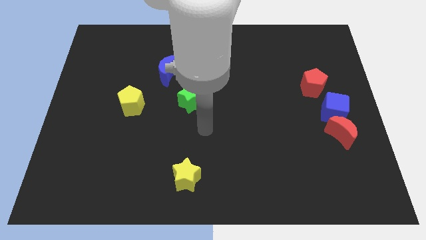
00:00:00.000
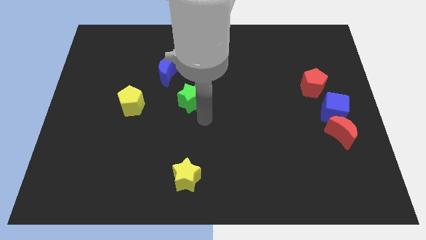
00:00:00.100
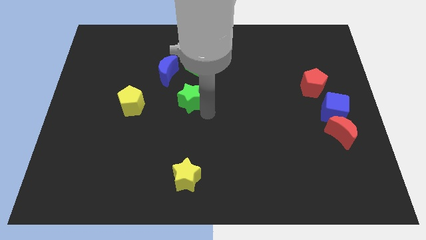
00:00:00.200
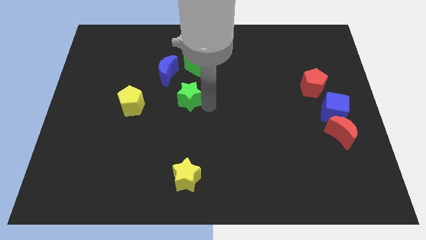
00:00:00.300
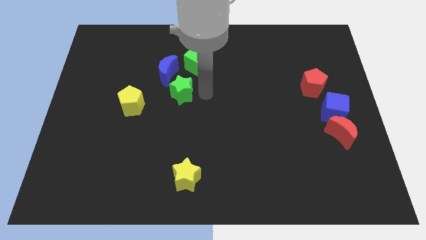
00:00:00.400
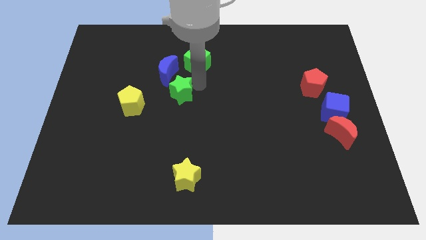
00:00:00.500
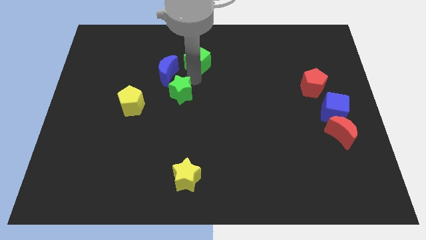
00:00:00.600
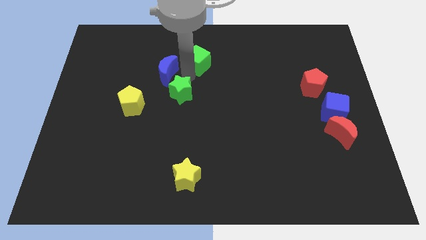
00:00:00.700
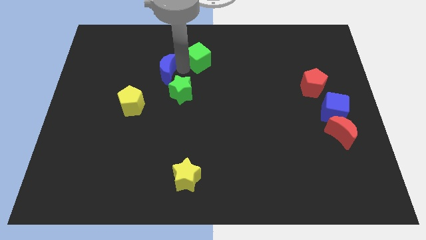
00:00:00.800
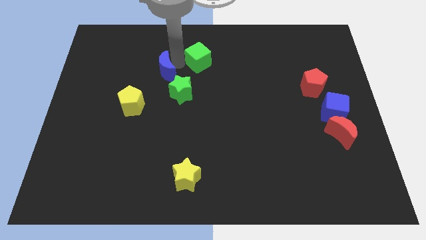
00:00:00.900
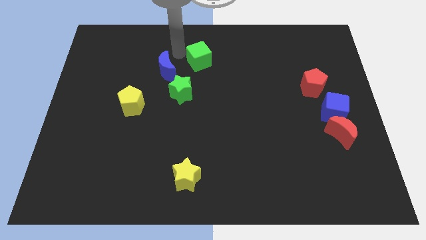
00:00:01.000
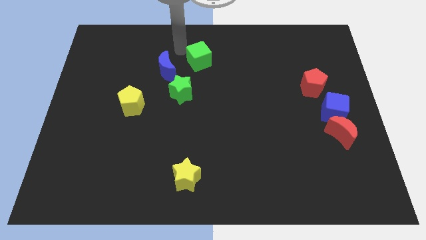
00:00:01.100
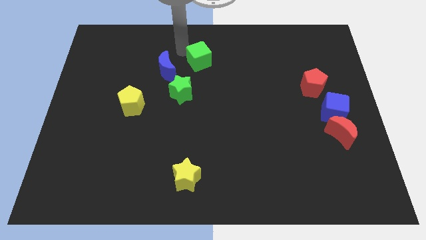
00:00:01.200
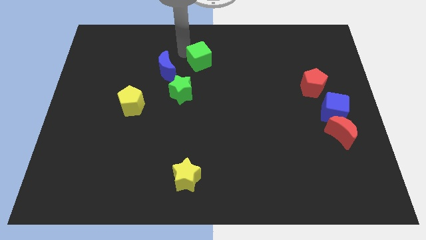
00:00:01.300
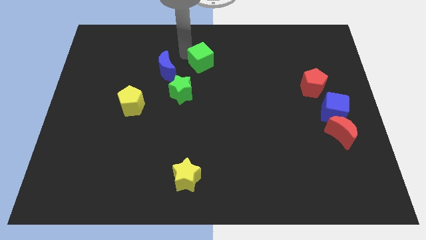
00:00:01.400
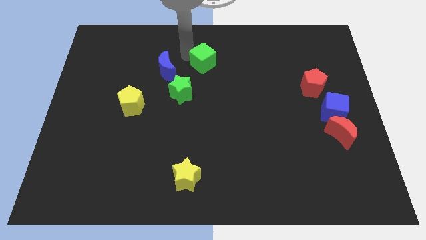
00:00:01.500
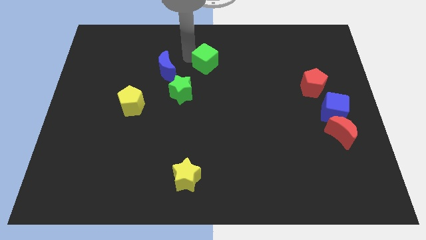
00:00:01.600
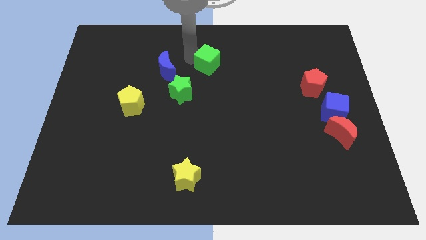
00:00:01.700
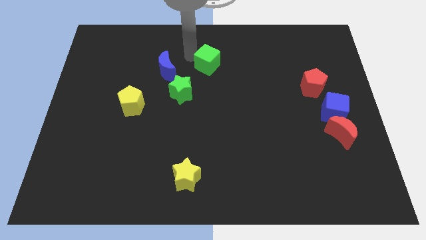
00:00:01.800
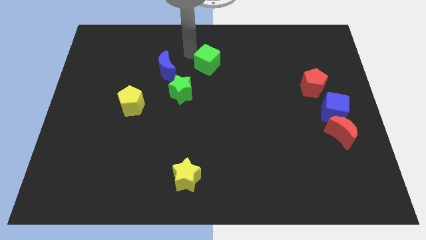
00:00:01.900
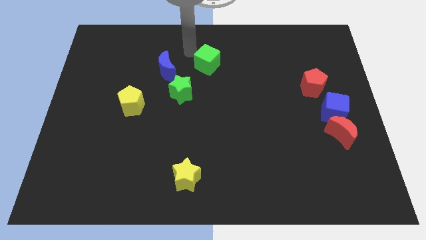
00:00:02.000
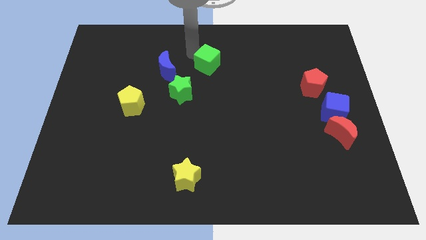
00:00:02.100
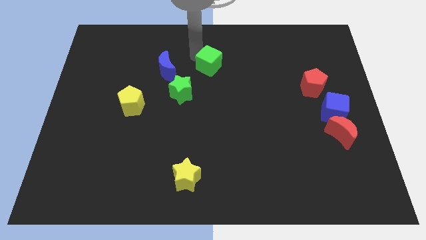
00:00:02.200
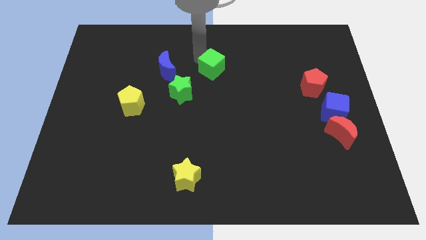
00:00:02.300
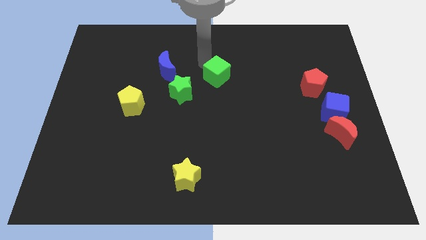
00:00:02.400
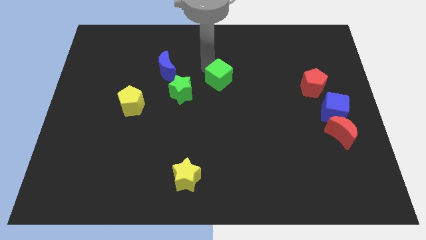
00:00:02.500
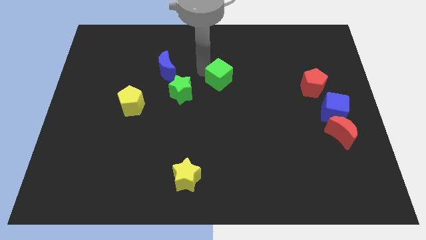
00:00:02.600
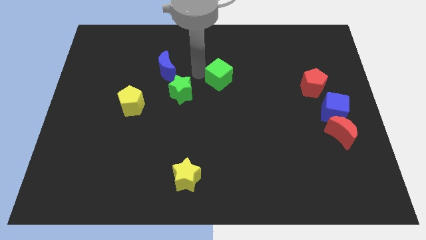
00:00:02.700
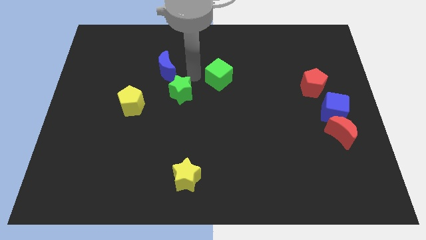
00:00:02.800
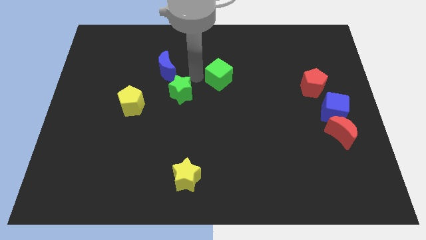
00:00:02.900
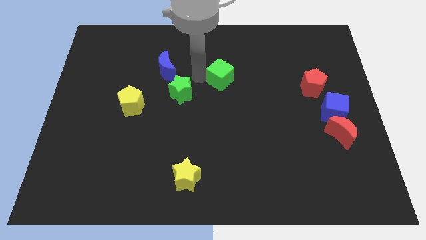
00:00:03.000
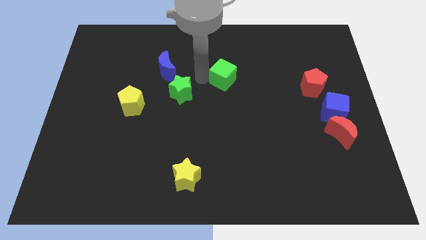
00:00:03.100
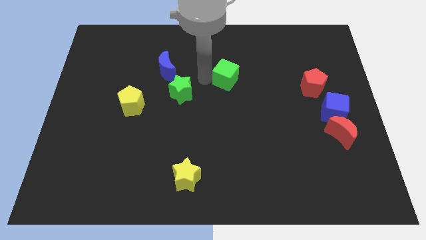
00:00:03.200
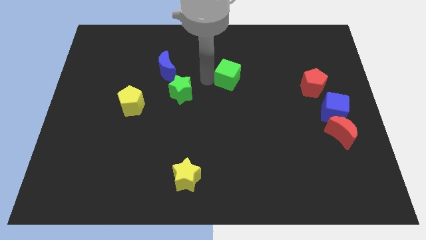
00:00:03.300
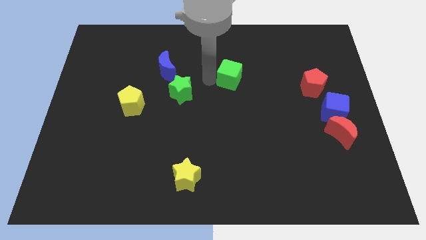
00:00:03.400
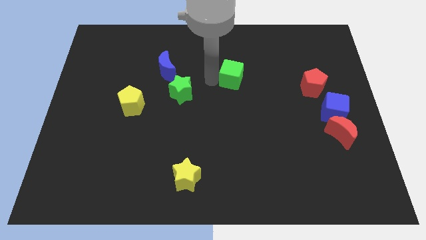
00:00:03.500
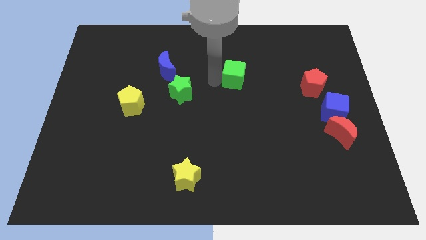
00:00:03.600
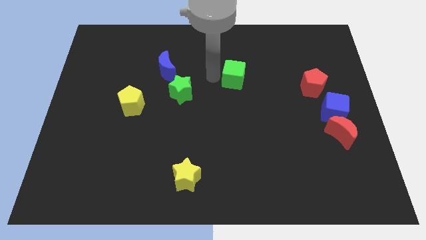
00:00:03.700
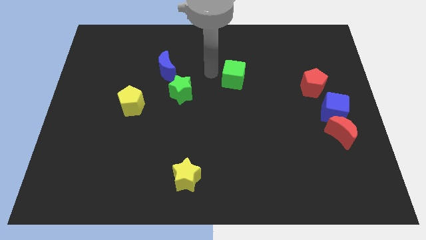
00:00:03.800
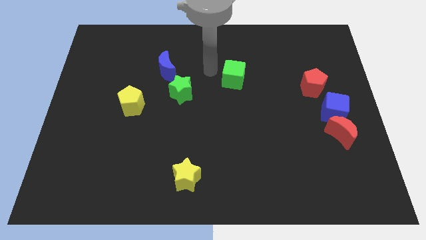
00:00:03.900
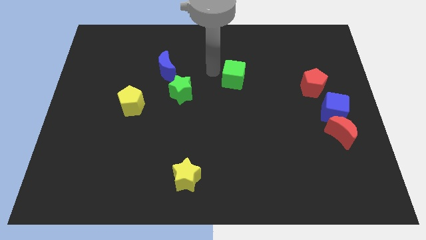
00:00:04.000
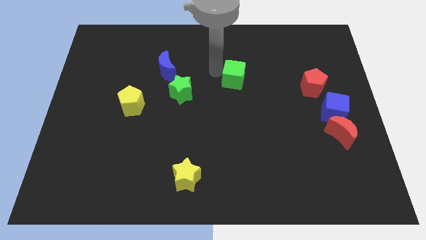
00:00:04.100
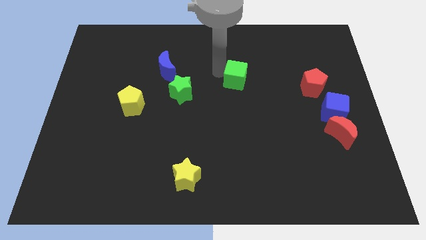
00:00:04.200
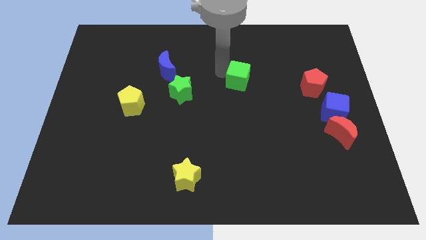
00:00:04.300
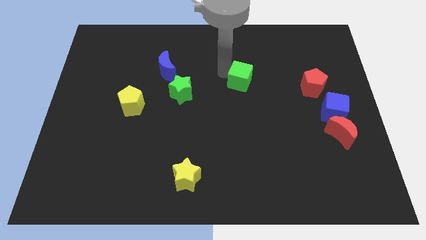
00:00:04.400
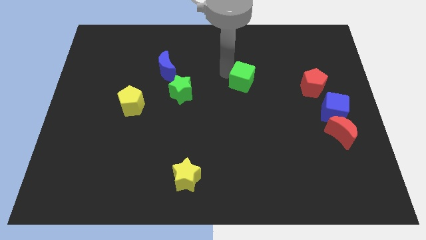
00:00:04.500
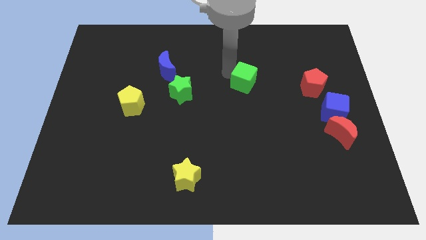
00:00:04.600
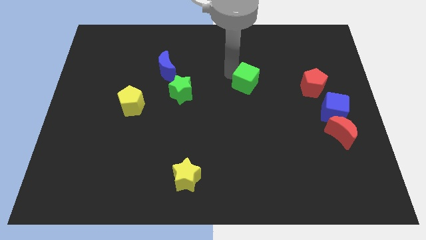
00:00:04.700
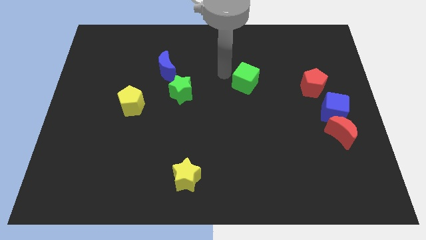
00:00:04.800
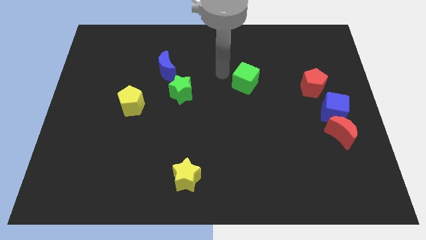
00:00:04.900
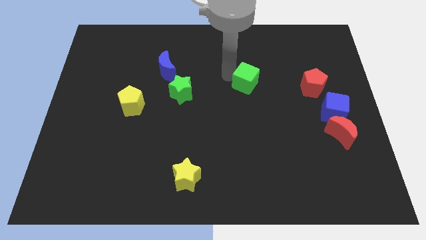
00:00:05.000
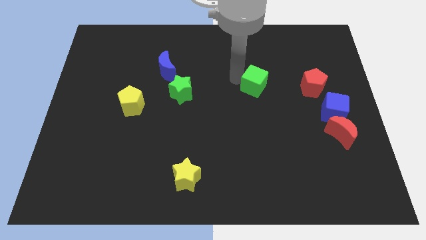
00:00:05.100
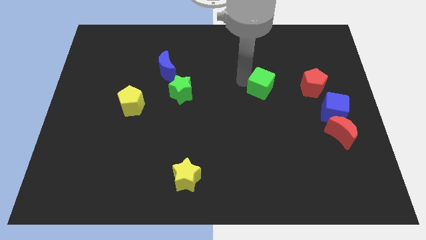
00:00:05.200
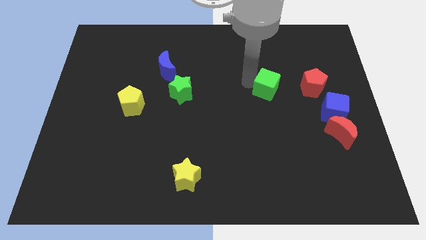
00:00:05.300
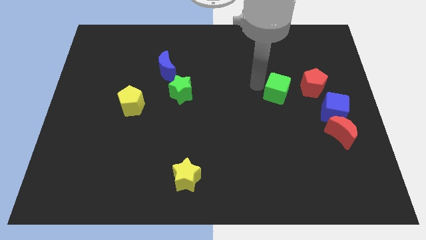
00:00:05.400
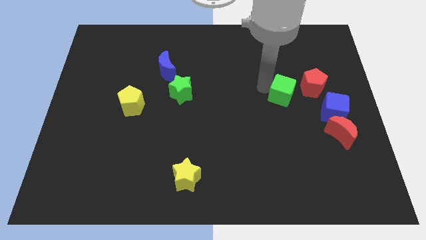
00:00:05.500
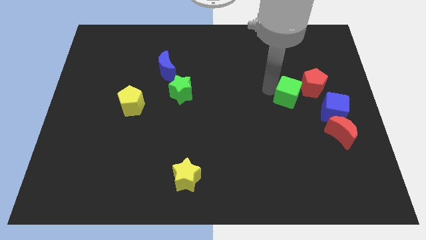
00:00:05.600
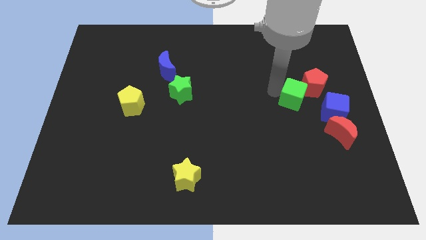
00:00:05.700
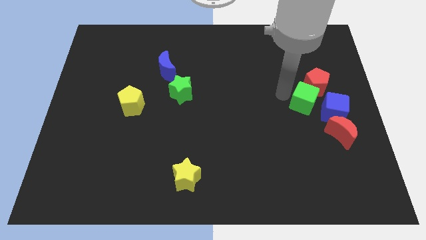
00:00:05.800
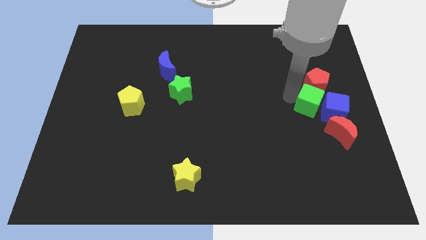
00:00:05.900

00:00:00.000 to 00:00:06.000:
move the green cube next to the blue cube

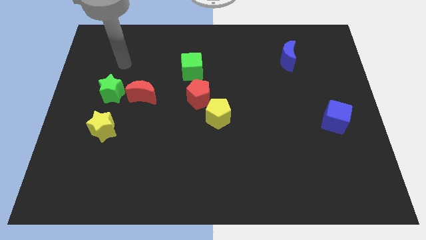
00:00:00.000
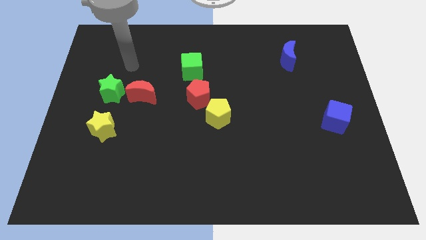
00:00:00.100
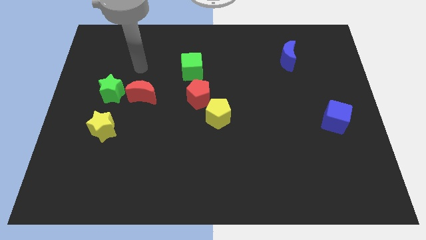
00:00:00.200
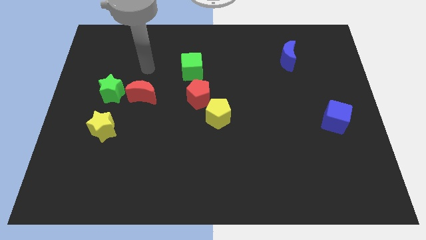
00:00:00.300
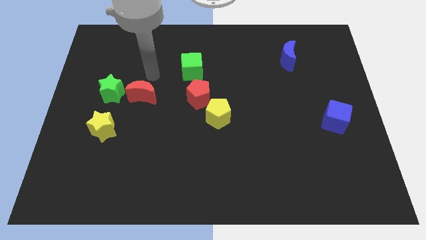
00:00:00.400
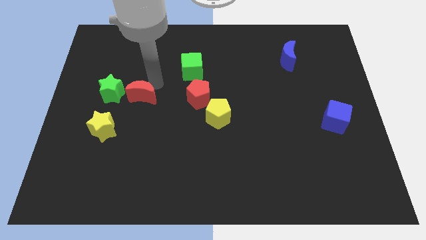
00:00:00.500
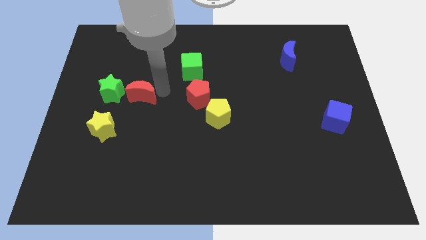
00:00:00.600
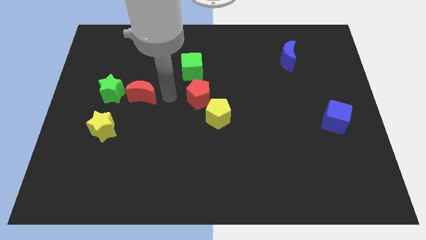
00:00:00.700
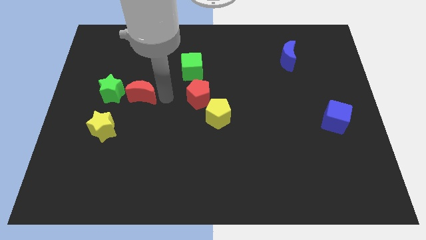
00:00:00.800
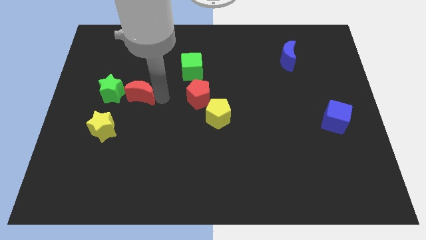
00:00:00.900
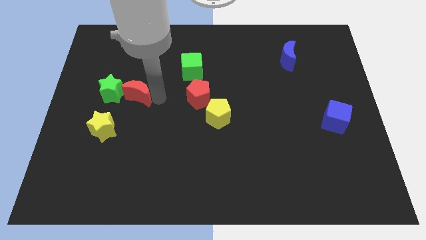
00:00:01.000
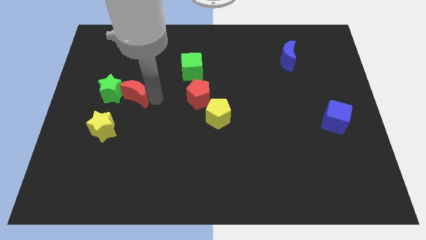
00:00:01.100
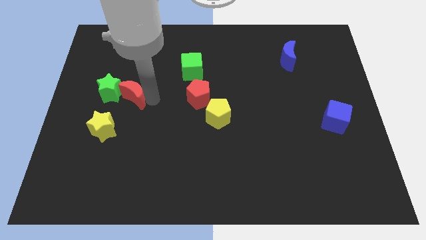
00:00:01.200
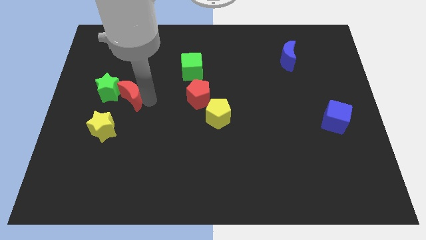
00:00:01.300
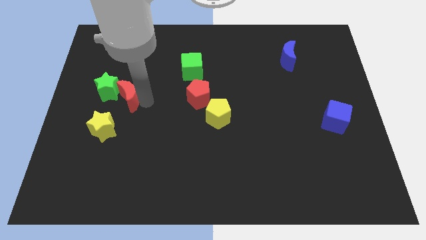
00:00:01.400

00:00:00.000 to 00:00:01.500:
slide the red moon close to the green star
